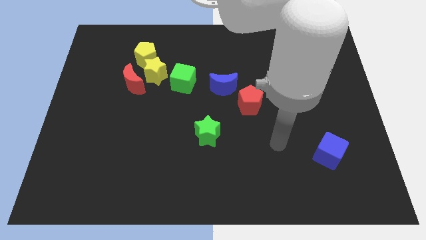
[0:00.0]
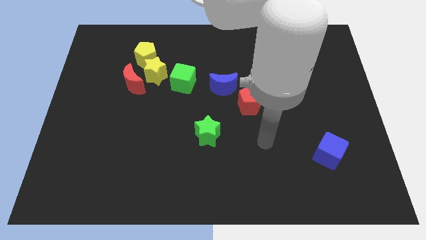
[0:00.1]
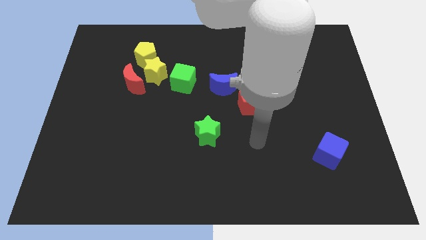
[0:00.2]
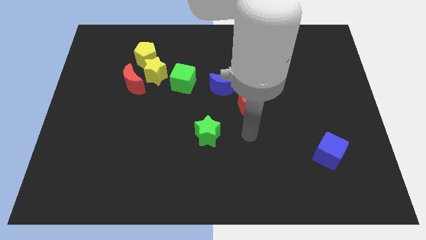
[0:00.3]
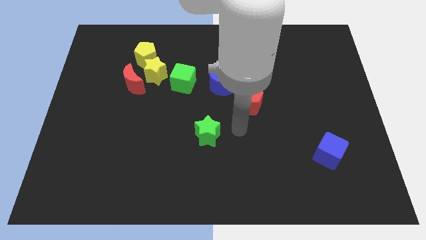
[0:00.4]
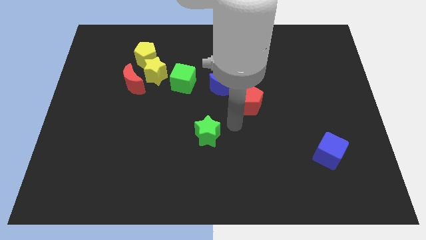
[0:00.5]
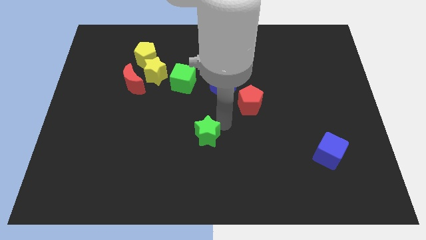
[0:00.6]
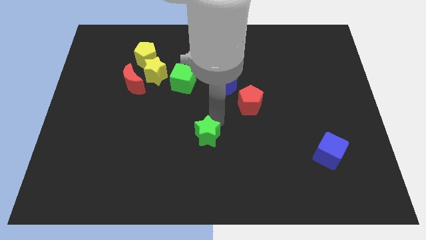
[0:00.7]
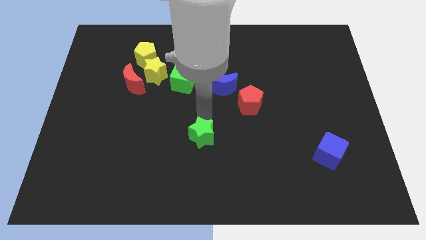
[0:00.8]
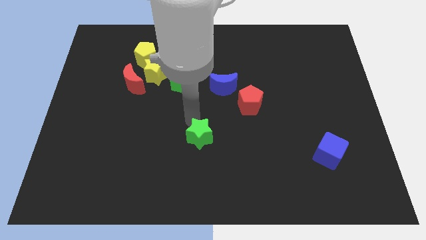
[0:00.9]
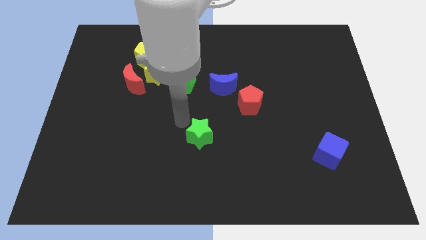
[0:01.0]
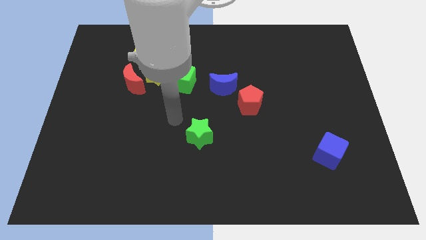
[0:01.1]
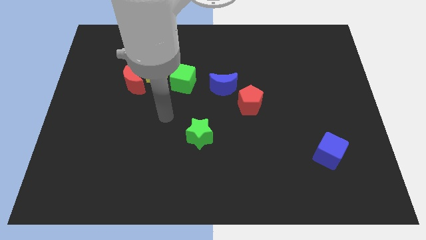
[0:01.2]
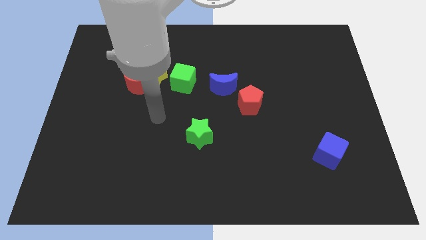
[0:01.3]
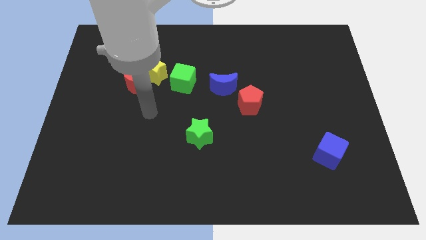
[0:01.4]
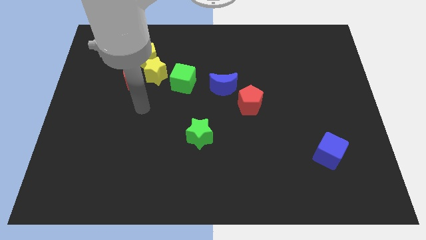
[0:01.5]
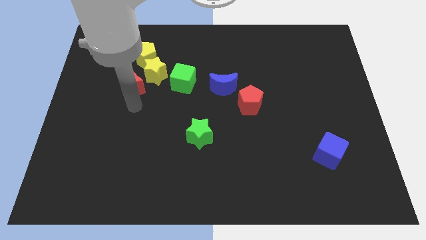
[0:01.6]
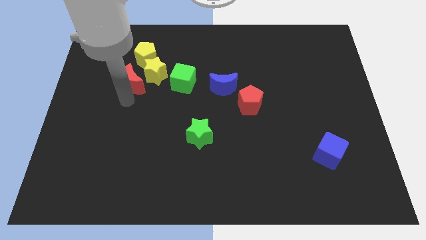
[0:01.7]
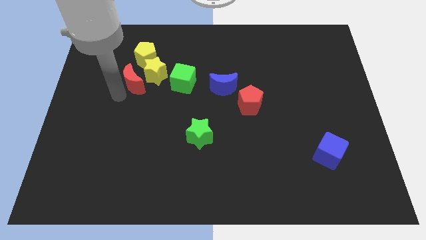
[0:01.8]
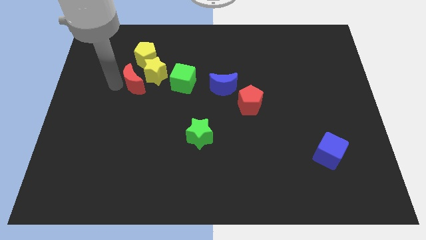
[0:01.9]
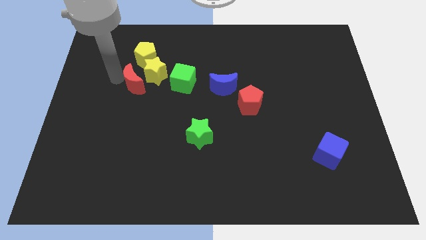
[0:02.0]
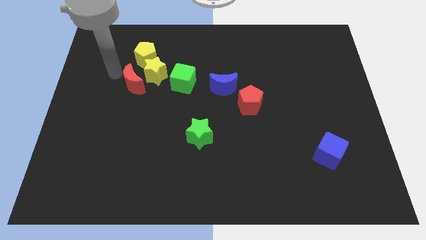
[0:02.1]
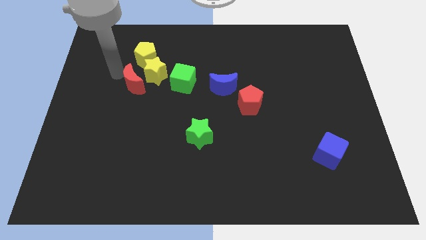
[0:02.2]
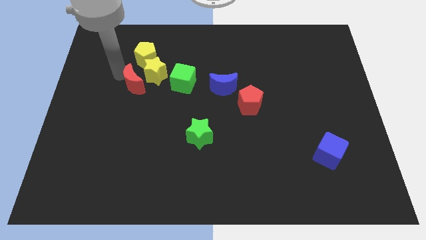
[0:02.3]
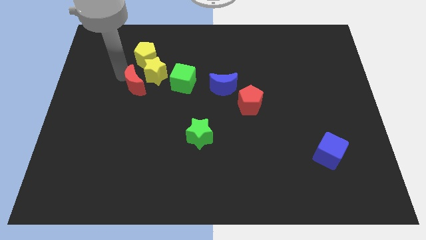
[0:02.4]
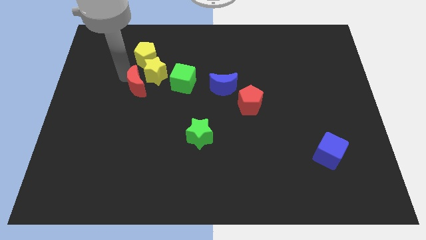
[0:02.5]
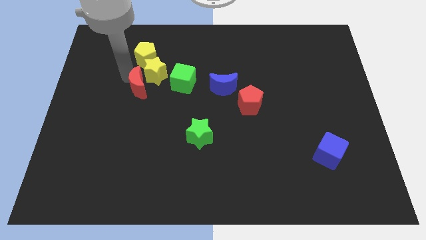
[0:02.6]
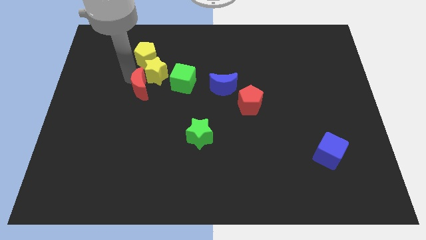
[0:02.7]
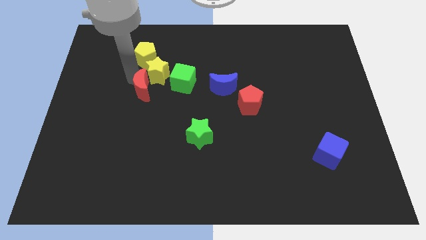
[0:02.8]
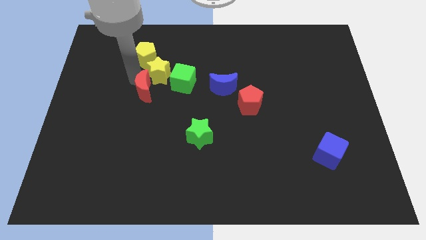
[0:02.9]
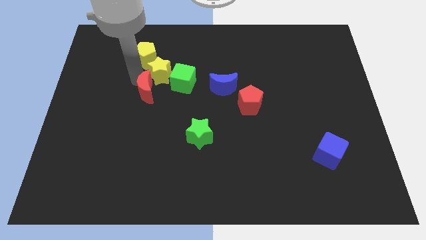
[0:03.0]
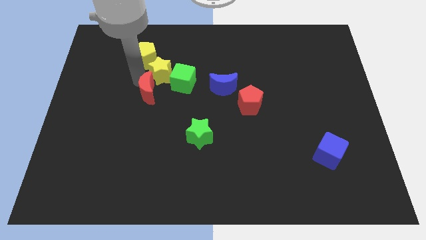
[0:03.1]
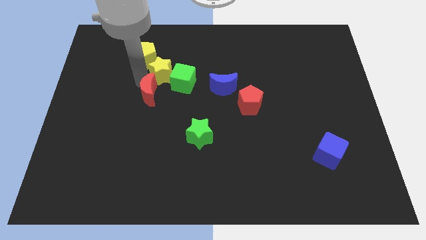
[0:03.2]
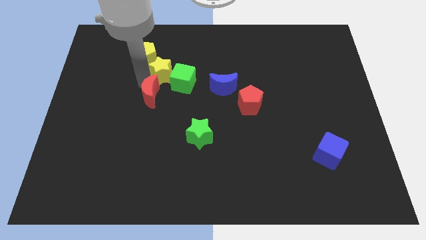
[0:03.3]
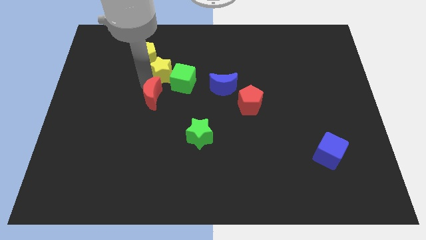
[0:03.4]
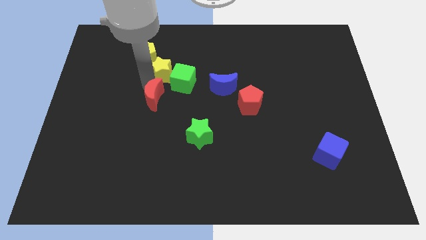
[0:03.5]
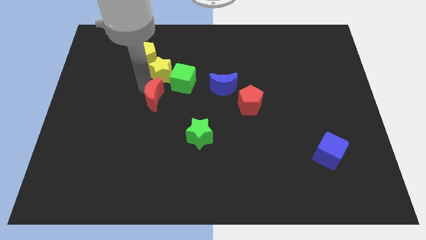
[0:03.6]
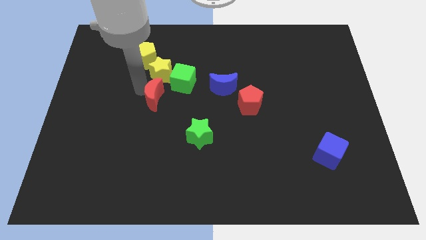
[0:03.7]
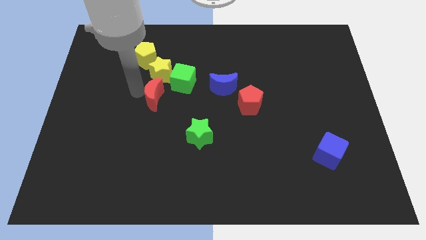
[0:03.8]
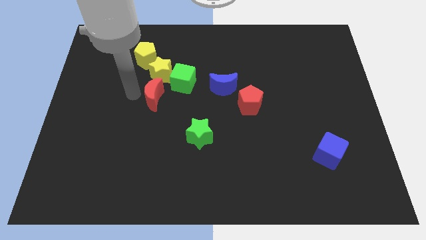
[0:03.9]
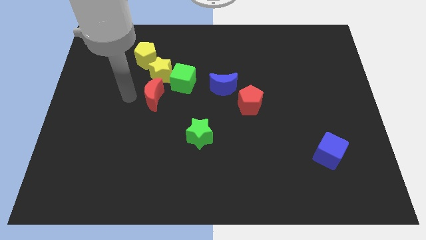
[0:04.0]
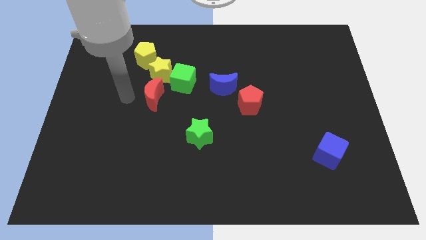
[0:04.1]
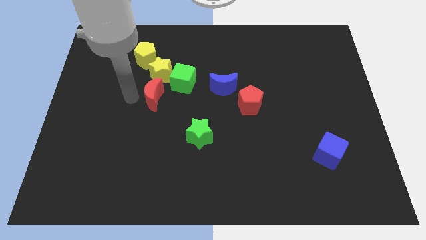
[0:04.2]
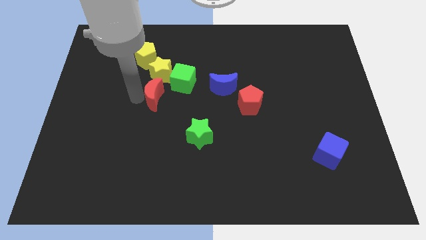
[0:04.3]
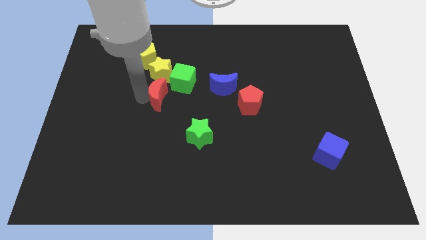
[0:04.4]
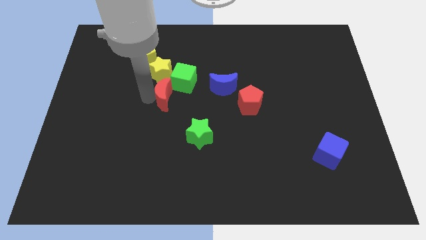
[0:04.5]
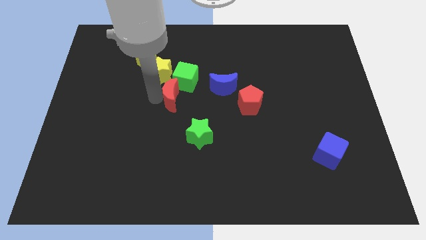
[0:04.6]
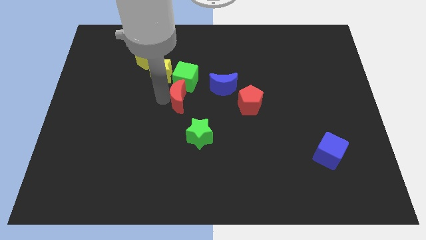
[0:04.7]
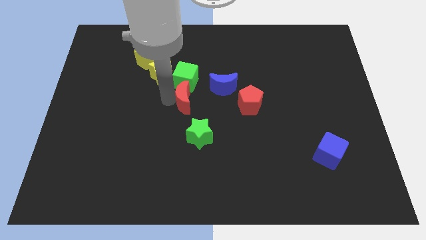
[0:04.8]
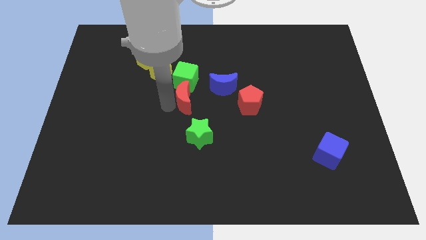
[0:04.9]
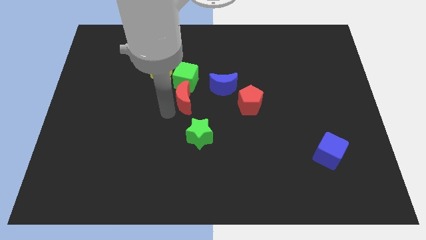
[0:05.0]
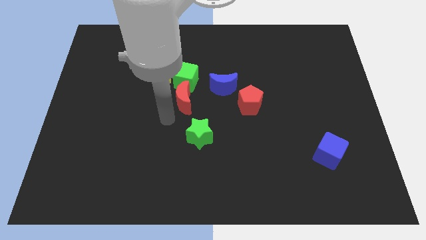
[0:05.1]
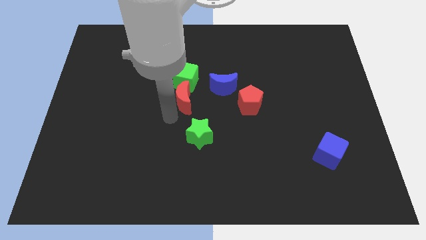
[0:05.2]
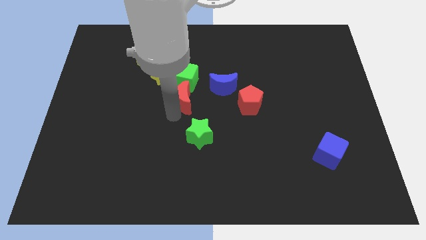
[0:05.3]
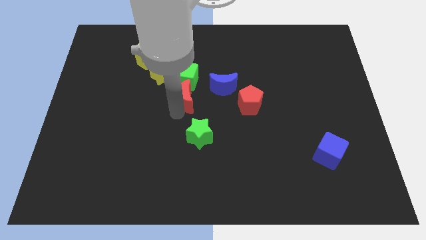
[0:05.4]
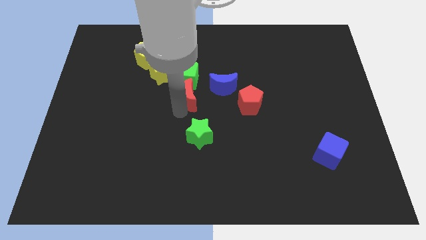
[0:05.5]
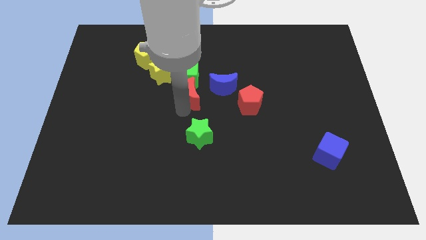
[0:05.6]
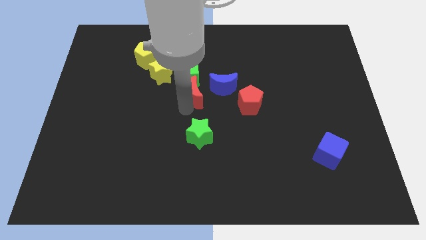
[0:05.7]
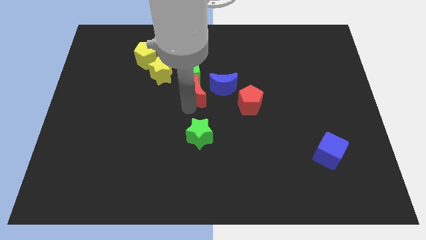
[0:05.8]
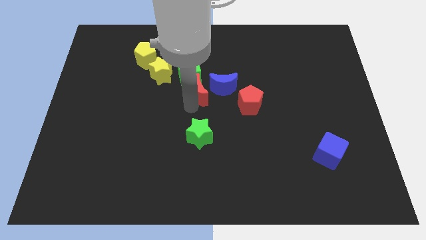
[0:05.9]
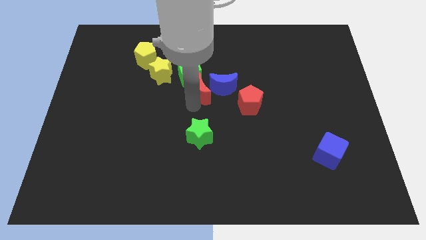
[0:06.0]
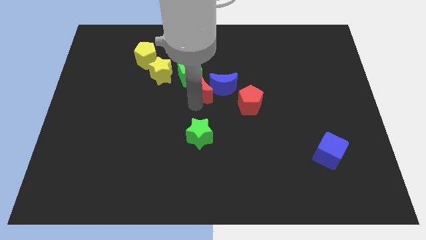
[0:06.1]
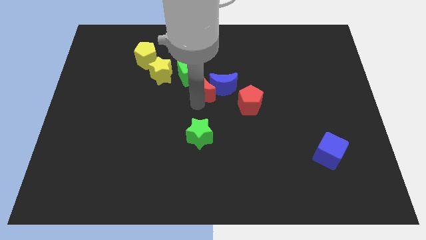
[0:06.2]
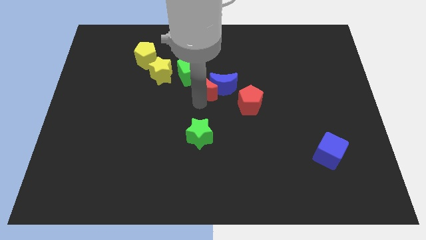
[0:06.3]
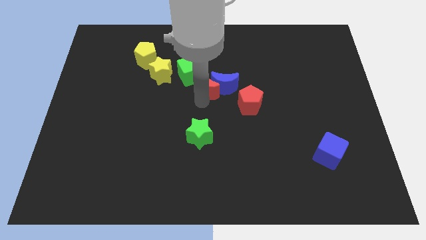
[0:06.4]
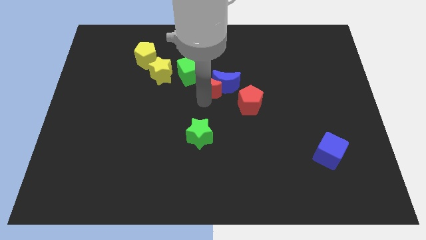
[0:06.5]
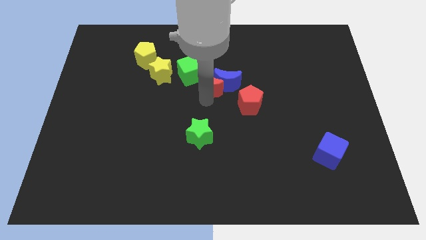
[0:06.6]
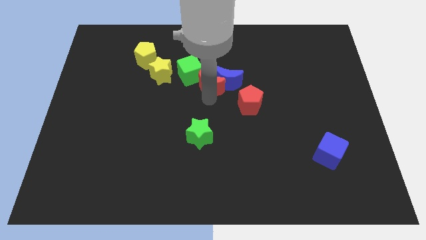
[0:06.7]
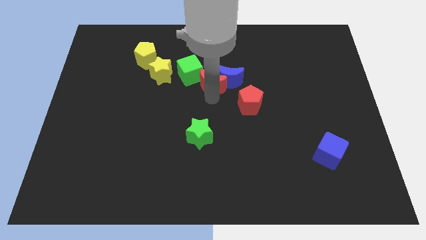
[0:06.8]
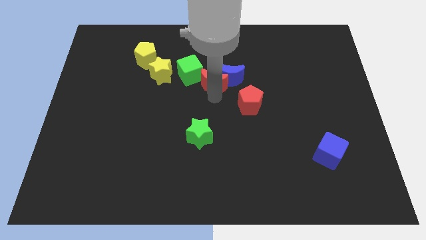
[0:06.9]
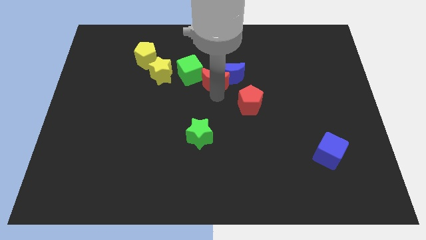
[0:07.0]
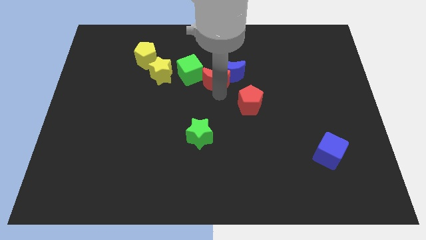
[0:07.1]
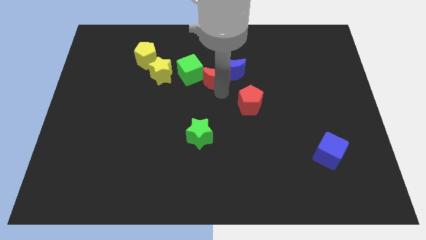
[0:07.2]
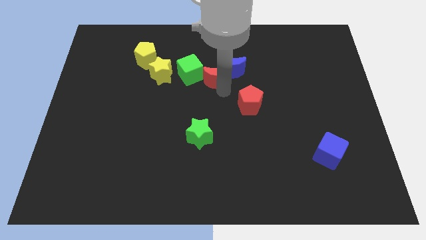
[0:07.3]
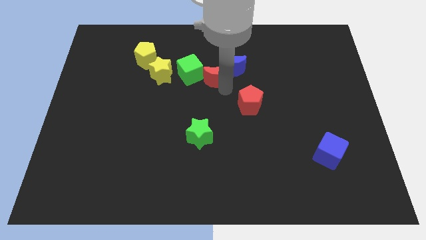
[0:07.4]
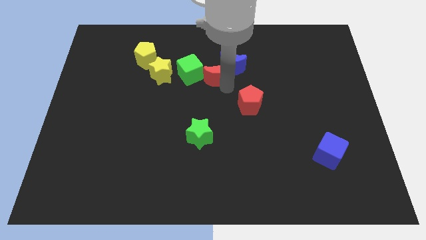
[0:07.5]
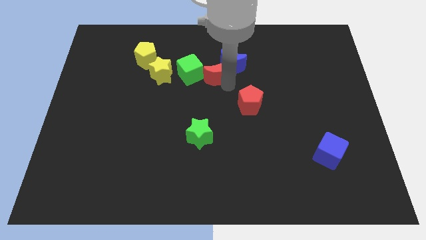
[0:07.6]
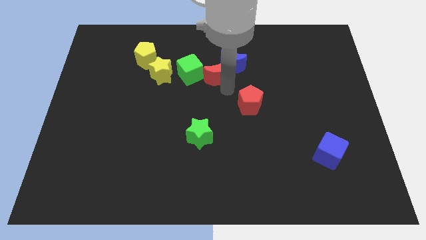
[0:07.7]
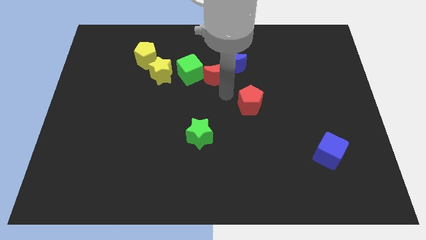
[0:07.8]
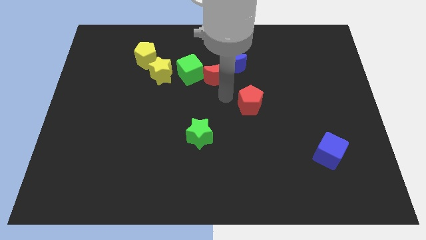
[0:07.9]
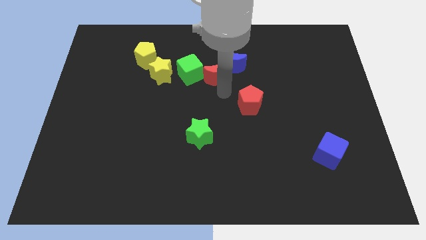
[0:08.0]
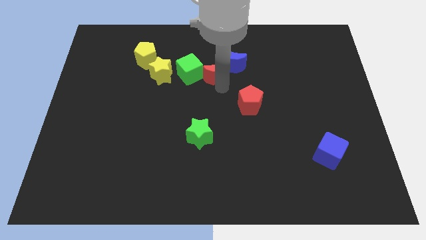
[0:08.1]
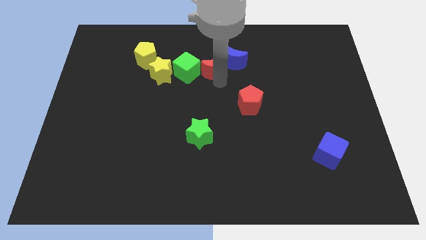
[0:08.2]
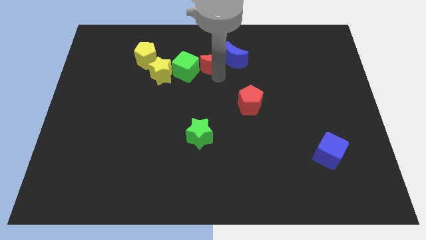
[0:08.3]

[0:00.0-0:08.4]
slide the red moon to the top right side of the green cube

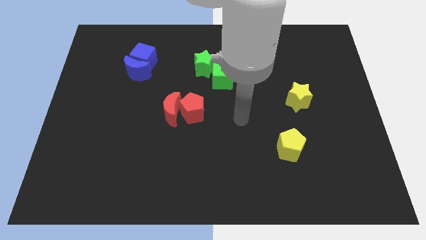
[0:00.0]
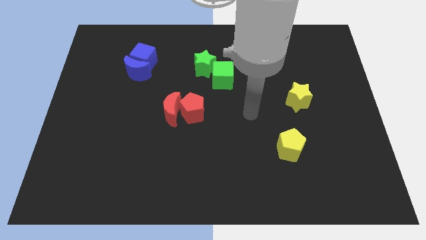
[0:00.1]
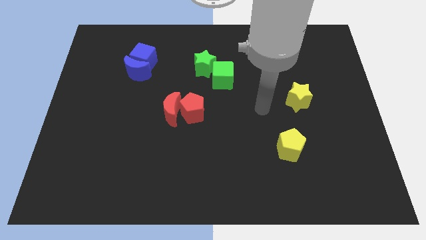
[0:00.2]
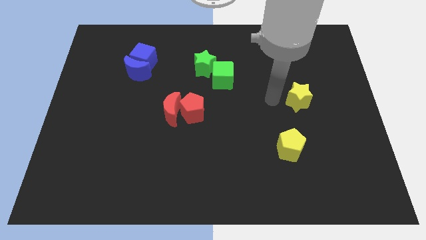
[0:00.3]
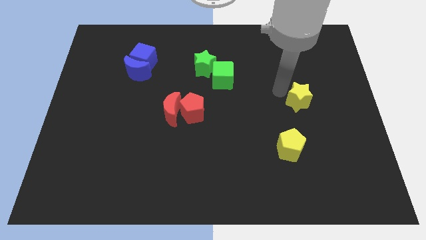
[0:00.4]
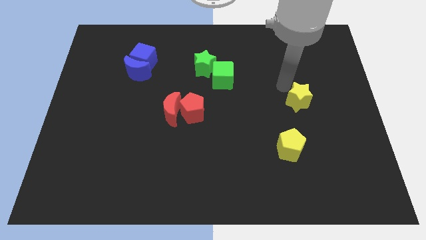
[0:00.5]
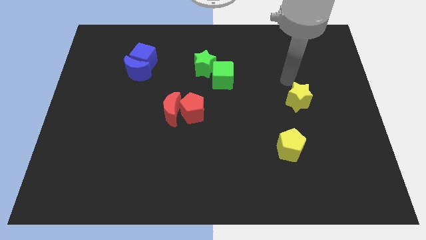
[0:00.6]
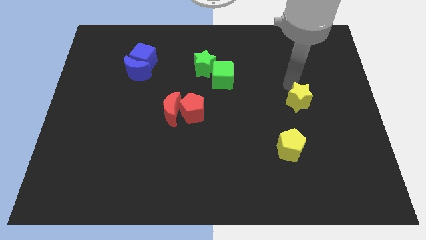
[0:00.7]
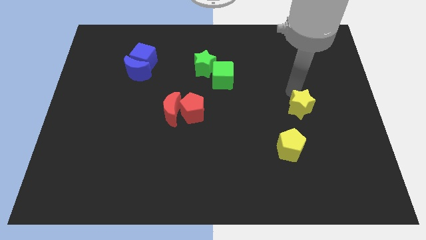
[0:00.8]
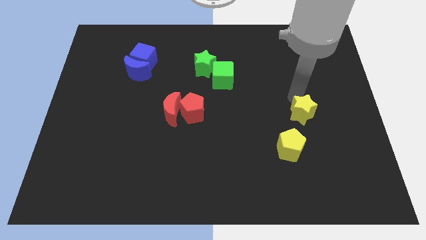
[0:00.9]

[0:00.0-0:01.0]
push the yellow star to the top right side of the yellow pentagon
